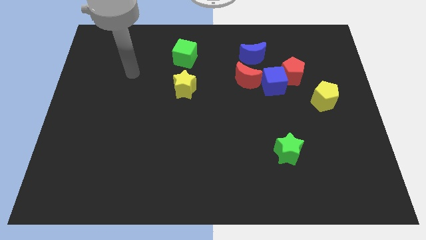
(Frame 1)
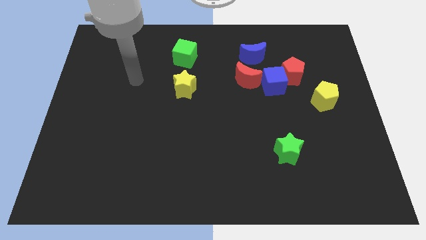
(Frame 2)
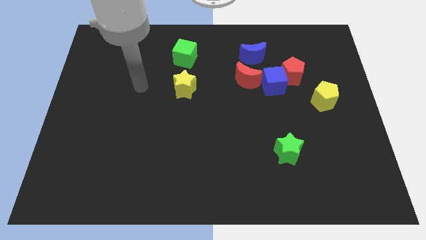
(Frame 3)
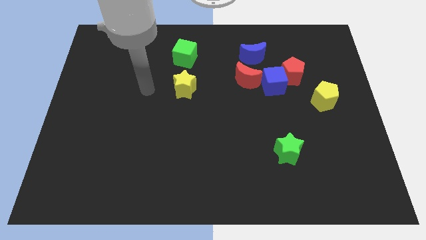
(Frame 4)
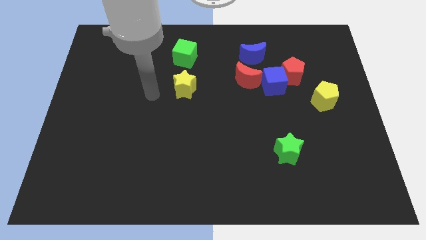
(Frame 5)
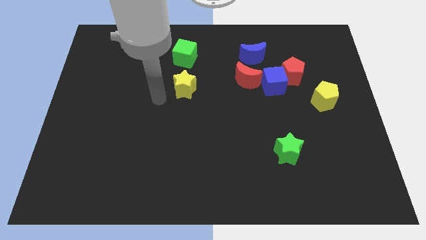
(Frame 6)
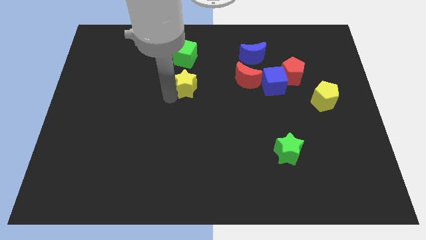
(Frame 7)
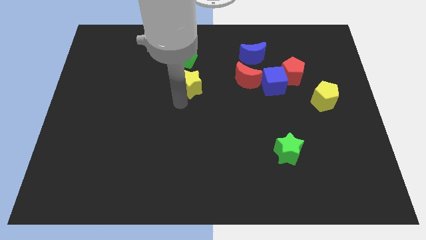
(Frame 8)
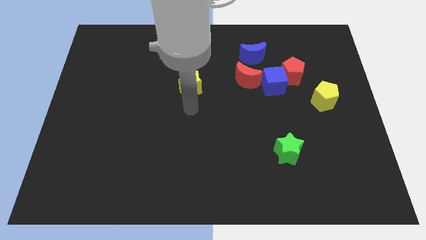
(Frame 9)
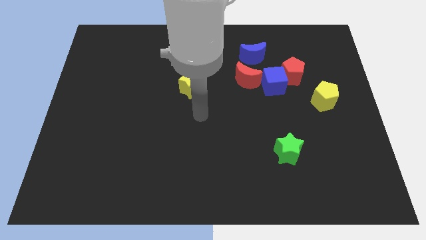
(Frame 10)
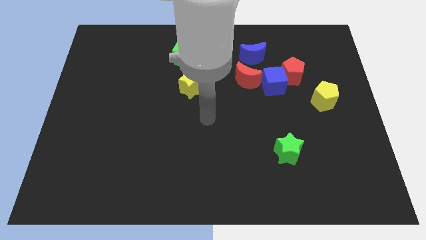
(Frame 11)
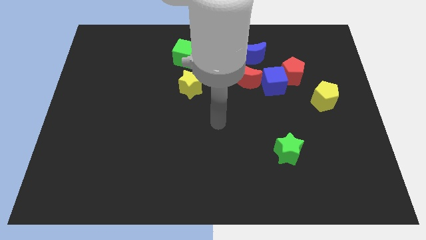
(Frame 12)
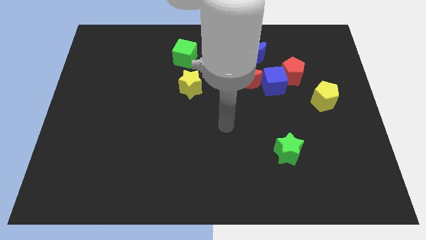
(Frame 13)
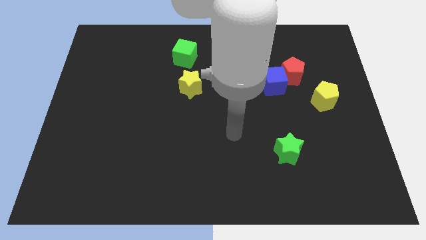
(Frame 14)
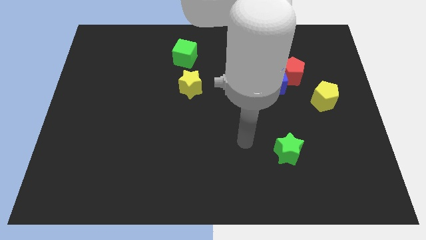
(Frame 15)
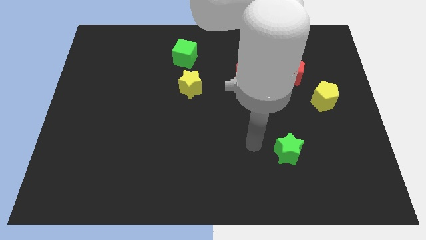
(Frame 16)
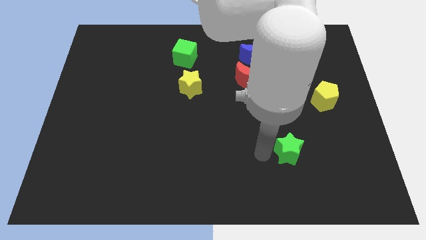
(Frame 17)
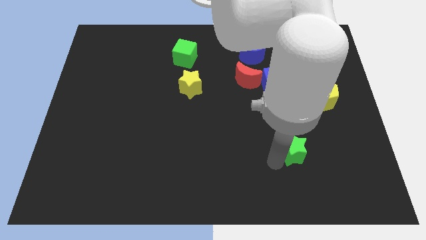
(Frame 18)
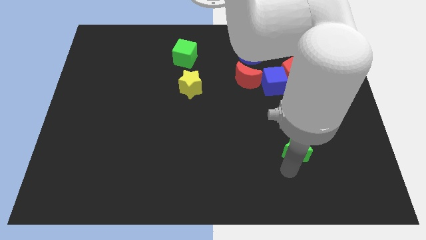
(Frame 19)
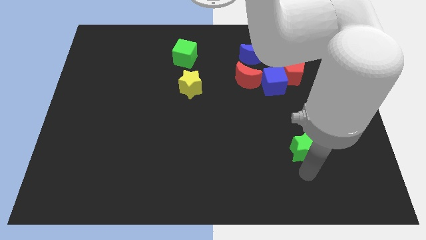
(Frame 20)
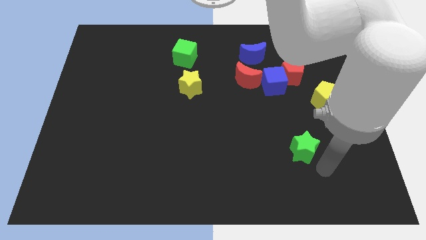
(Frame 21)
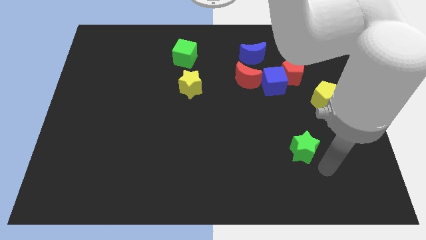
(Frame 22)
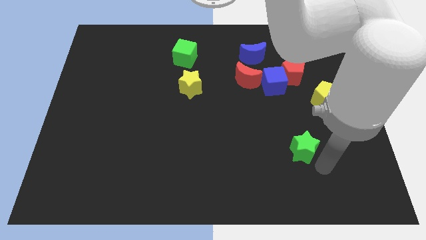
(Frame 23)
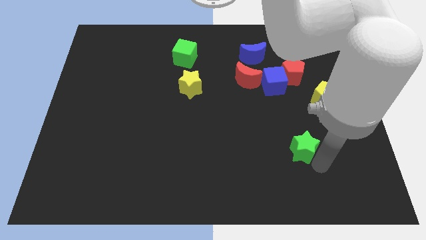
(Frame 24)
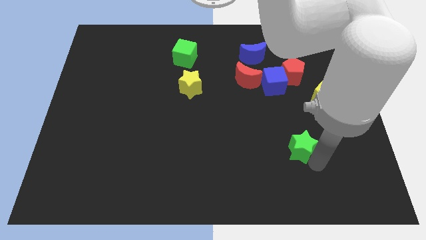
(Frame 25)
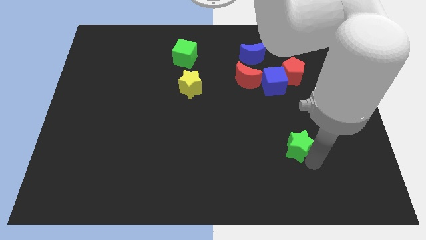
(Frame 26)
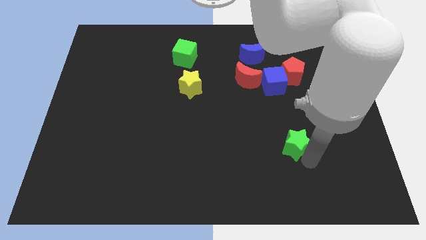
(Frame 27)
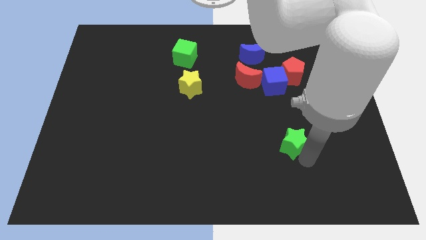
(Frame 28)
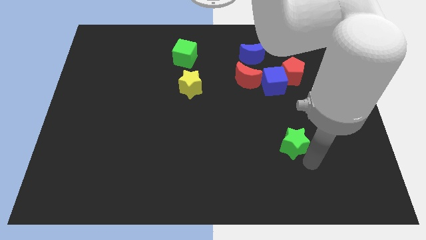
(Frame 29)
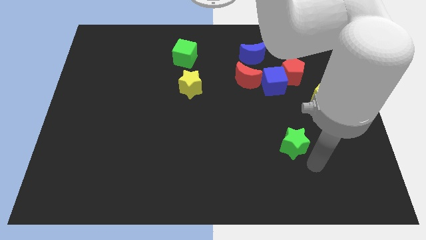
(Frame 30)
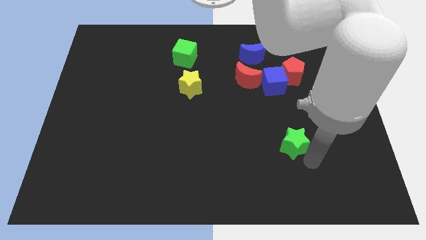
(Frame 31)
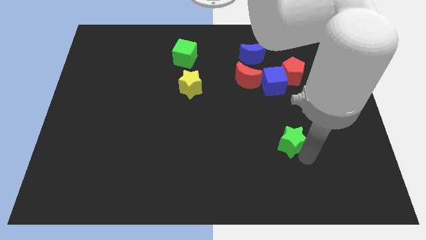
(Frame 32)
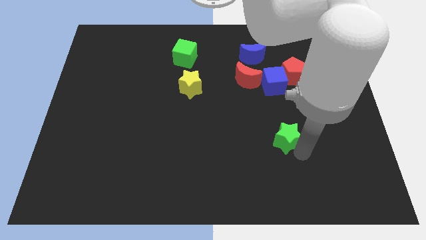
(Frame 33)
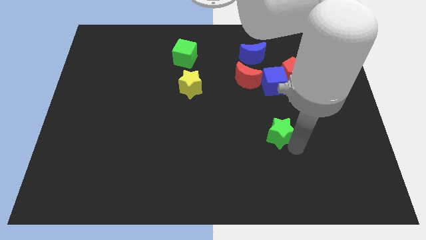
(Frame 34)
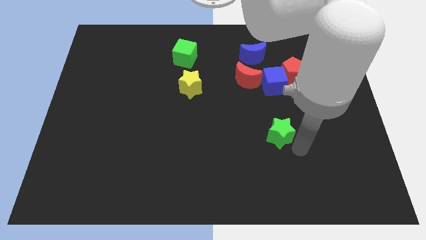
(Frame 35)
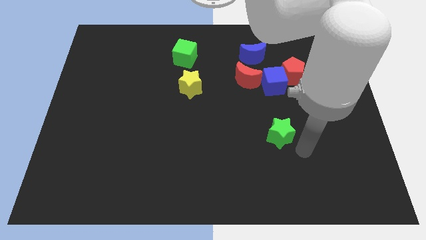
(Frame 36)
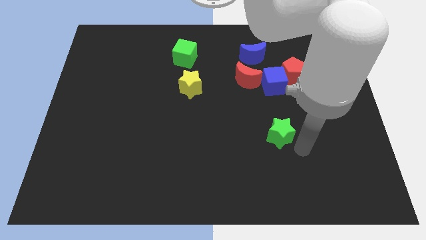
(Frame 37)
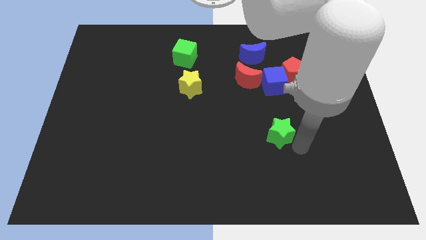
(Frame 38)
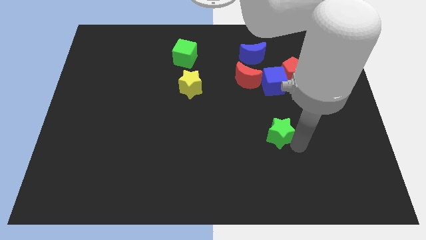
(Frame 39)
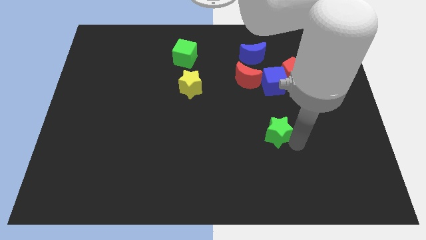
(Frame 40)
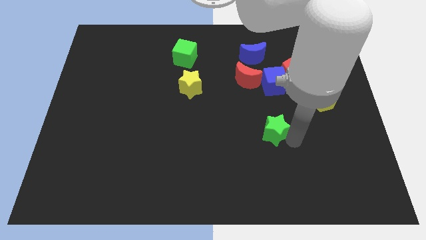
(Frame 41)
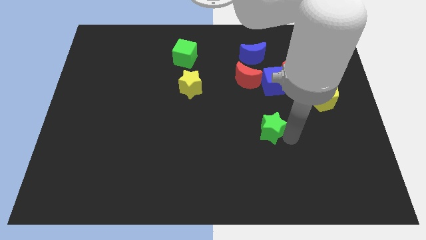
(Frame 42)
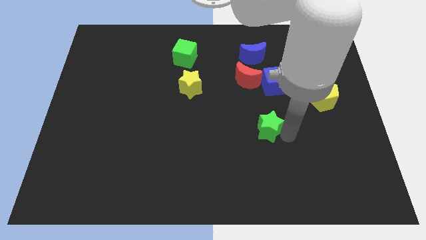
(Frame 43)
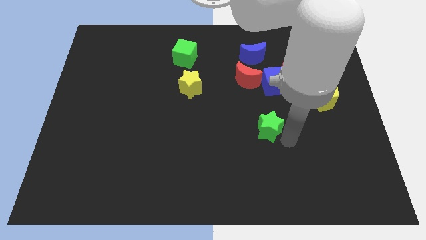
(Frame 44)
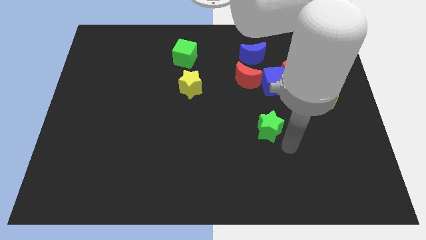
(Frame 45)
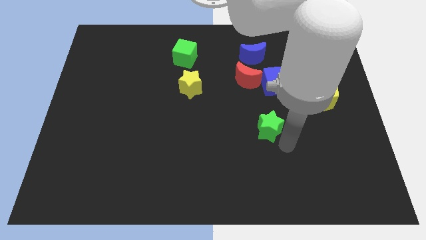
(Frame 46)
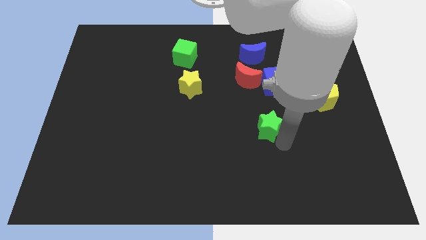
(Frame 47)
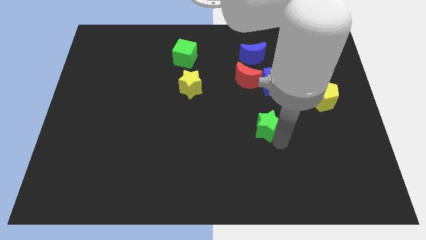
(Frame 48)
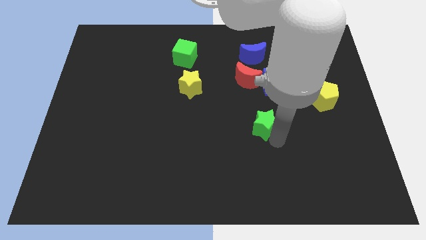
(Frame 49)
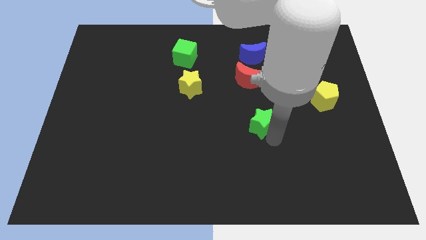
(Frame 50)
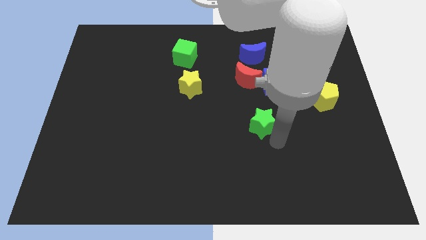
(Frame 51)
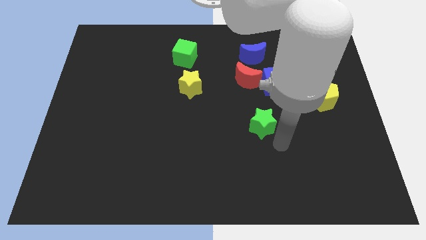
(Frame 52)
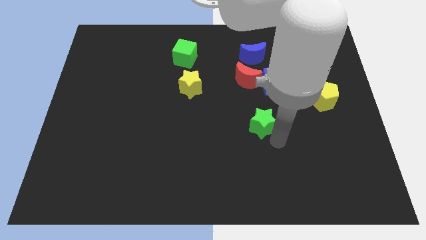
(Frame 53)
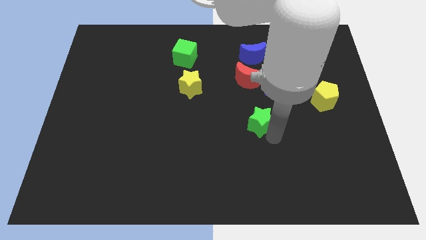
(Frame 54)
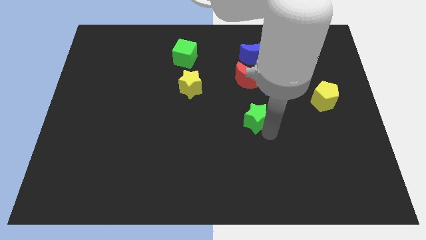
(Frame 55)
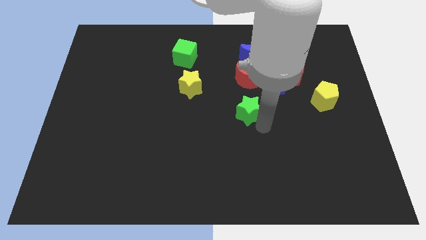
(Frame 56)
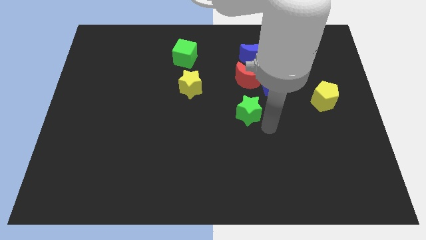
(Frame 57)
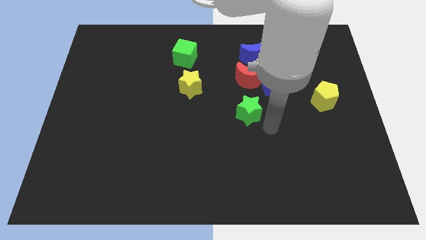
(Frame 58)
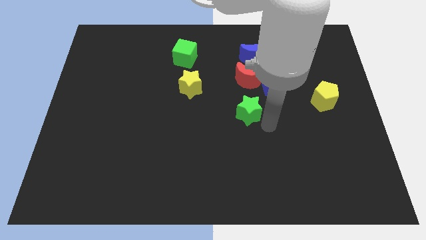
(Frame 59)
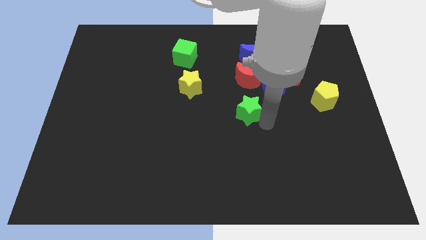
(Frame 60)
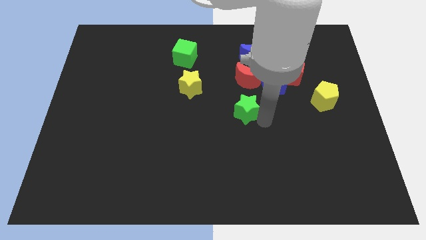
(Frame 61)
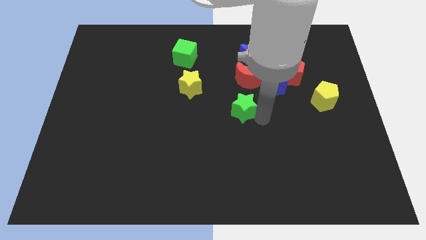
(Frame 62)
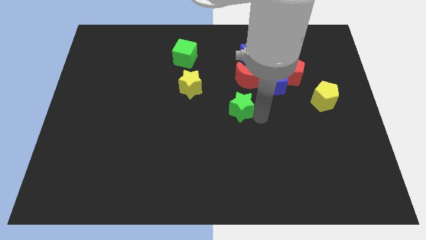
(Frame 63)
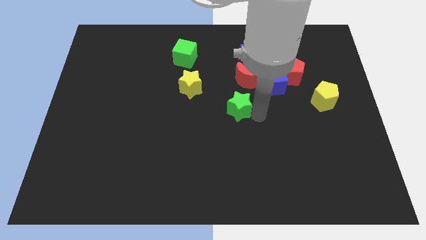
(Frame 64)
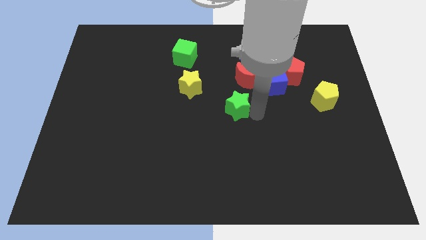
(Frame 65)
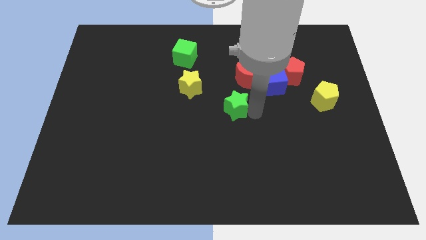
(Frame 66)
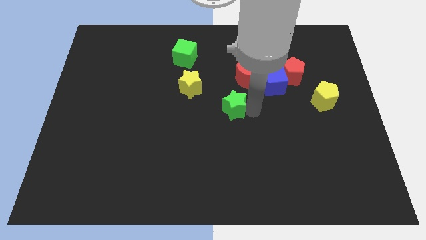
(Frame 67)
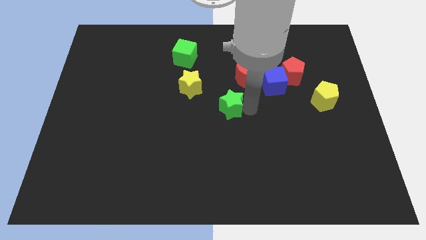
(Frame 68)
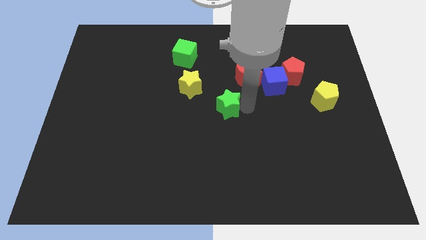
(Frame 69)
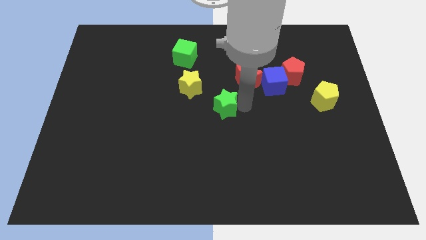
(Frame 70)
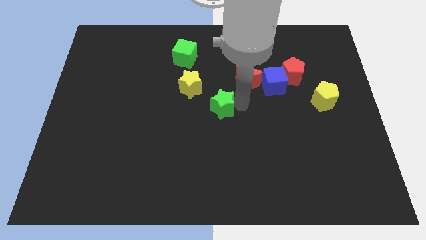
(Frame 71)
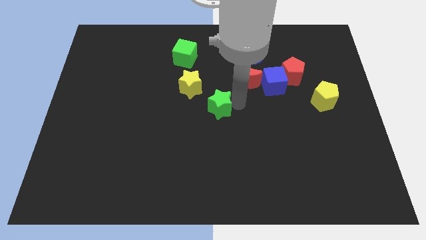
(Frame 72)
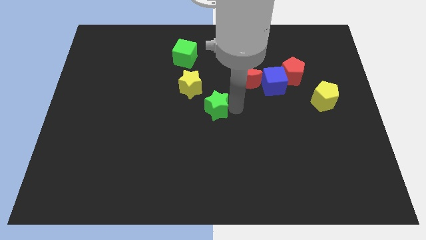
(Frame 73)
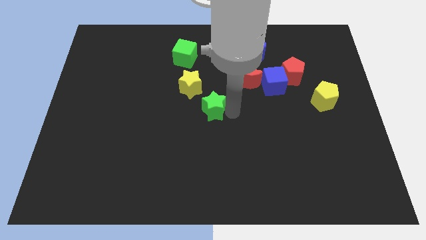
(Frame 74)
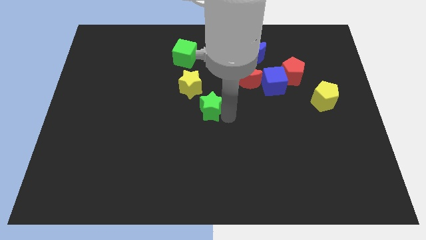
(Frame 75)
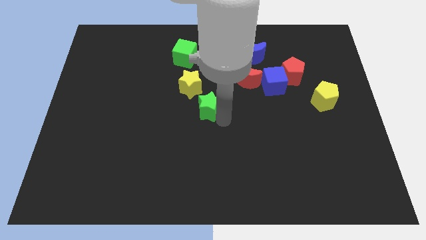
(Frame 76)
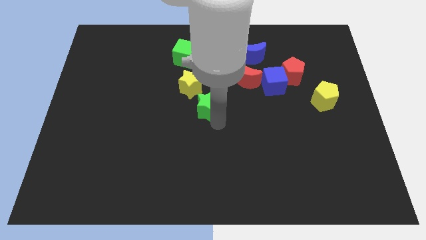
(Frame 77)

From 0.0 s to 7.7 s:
move the green star diagonally up and to the left

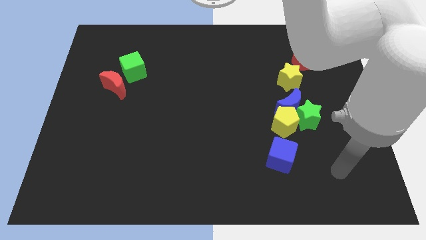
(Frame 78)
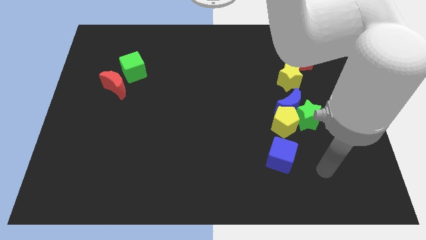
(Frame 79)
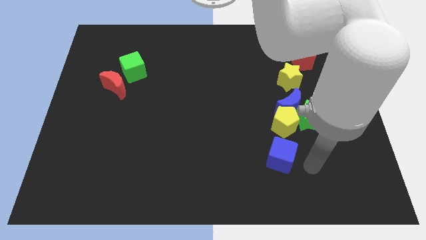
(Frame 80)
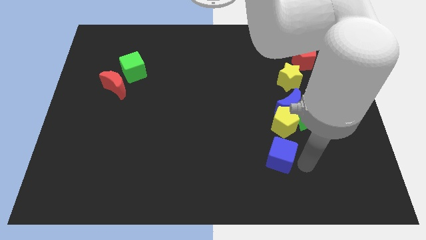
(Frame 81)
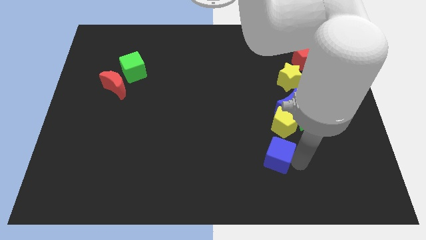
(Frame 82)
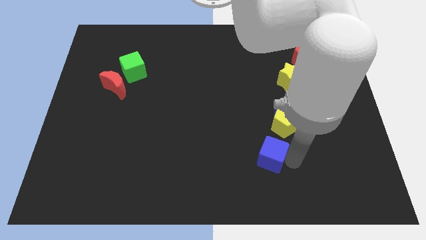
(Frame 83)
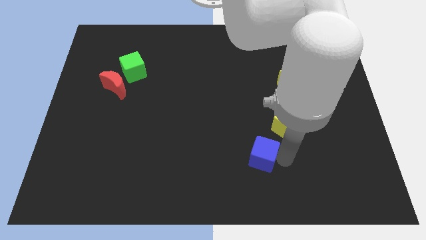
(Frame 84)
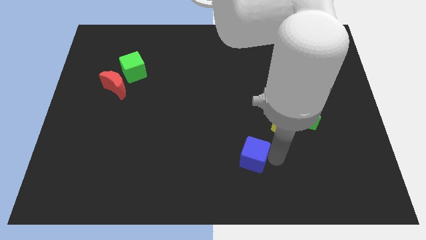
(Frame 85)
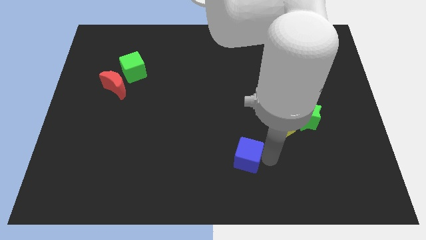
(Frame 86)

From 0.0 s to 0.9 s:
slide the blue cube left a bit
